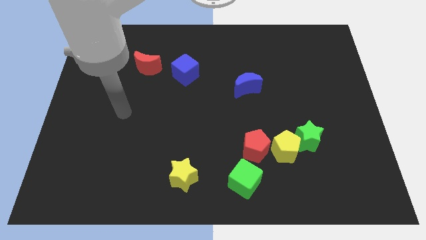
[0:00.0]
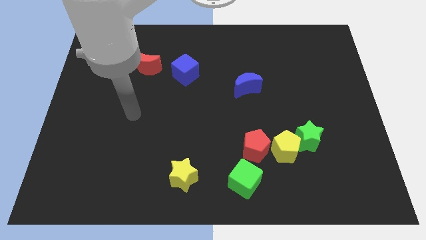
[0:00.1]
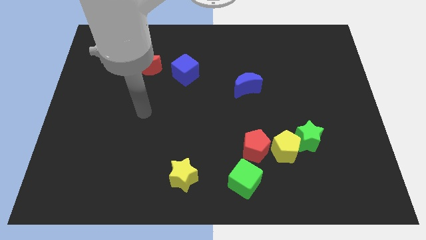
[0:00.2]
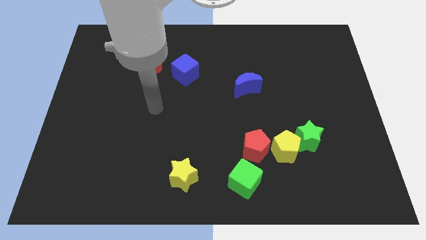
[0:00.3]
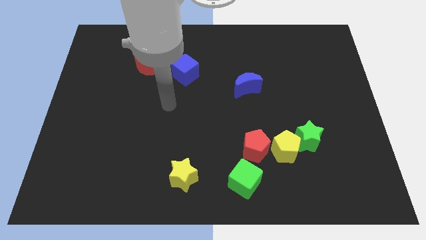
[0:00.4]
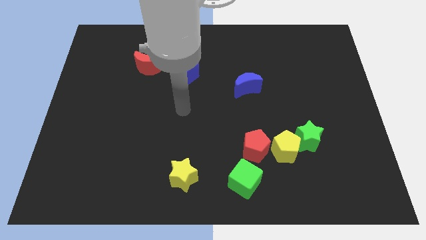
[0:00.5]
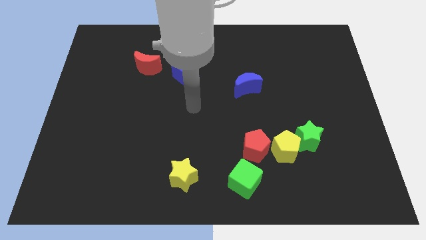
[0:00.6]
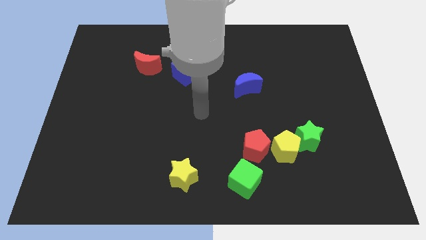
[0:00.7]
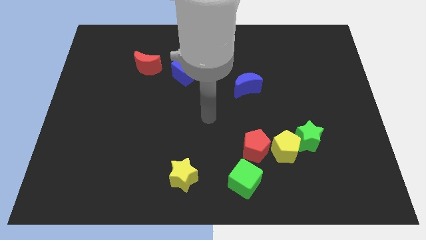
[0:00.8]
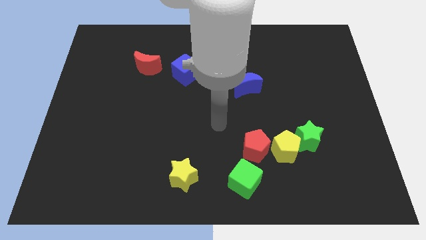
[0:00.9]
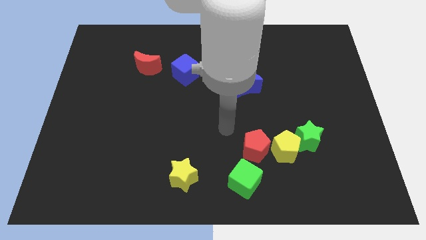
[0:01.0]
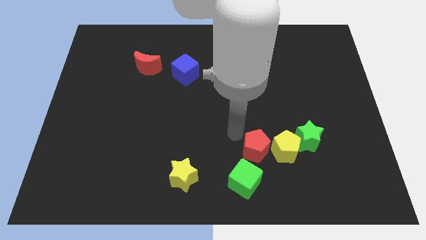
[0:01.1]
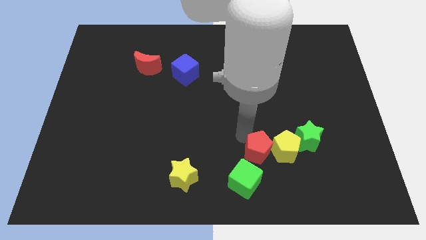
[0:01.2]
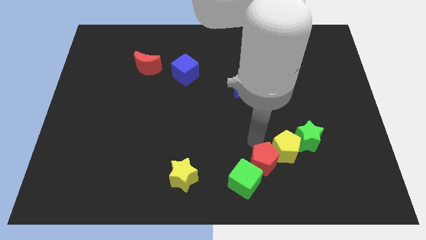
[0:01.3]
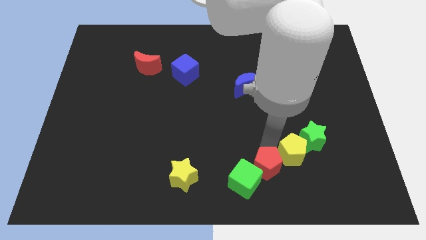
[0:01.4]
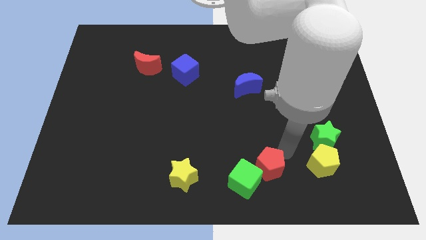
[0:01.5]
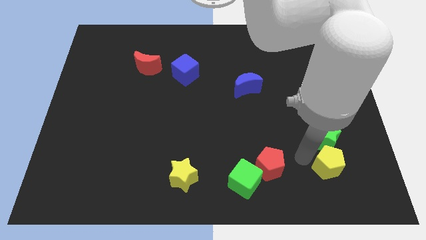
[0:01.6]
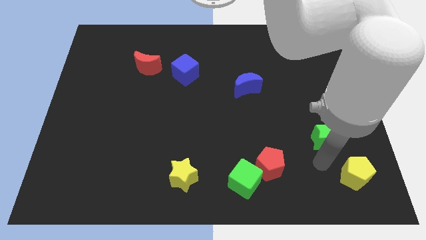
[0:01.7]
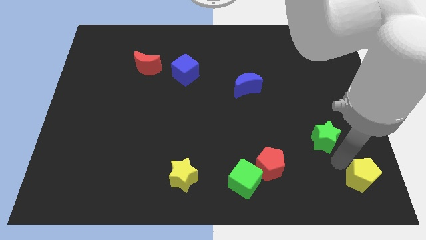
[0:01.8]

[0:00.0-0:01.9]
separate the green star from the yellow pentagon

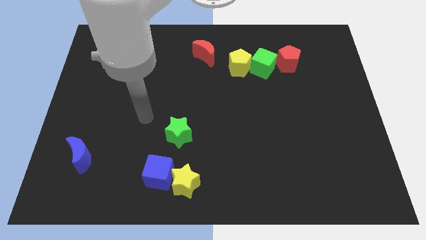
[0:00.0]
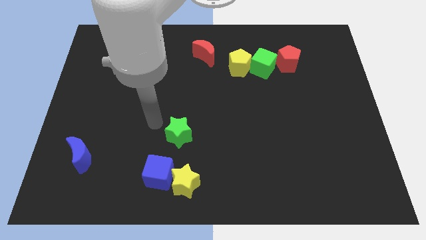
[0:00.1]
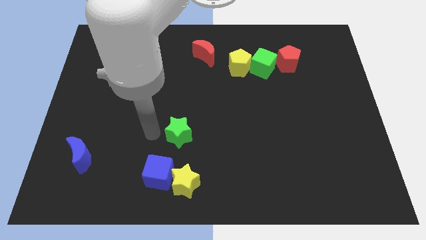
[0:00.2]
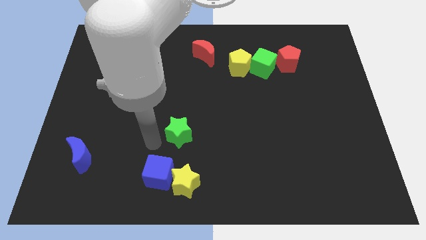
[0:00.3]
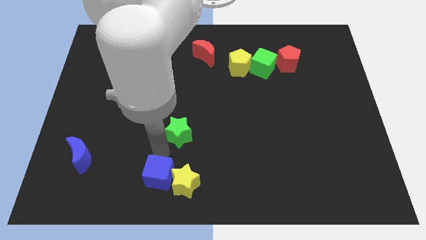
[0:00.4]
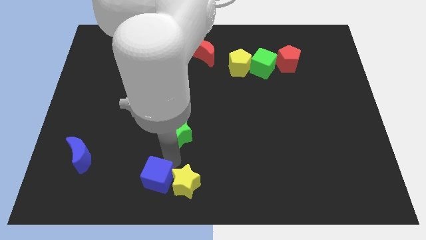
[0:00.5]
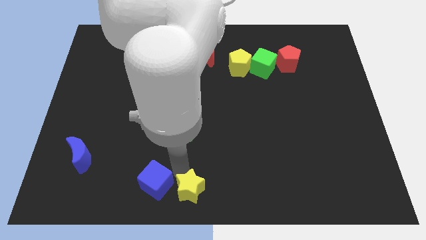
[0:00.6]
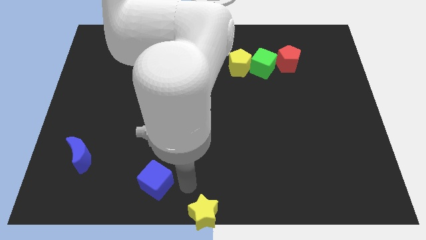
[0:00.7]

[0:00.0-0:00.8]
pull the blue cube apart from the yellow star

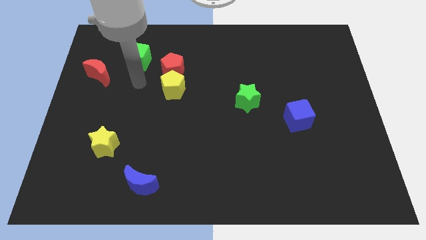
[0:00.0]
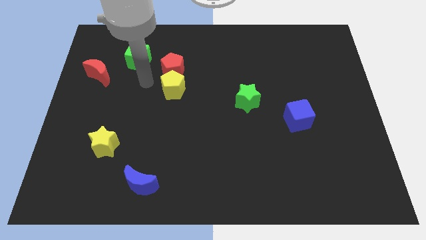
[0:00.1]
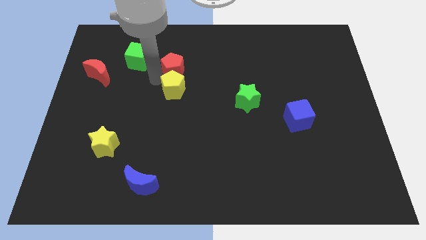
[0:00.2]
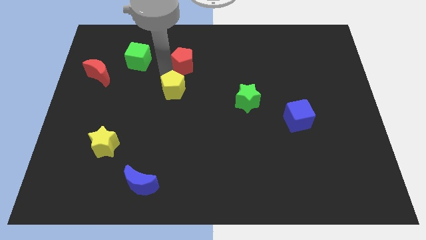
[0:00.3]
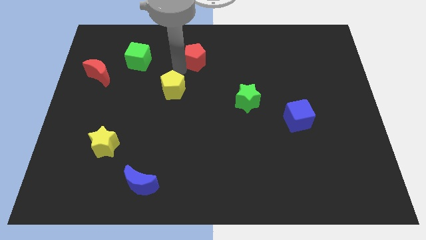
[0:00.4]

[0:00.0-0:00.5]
separate the yellow pentagon from the red pentagon

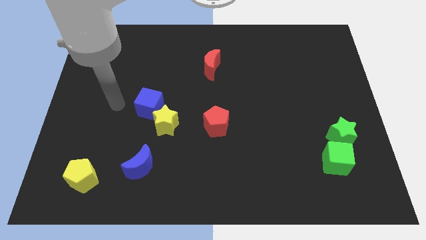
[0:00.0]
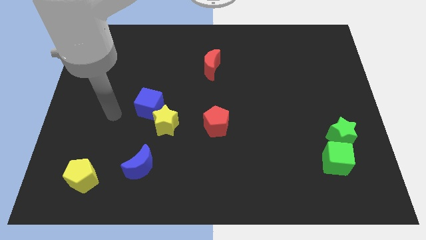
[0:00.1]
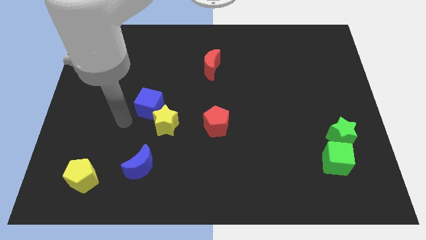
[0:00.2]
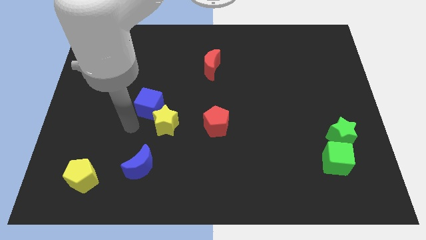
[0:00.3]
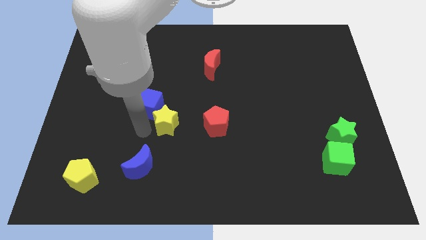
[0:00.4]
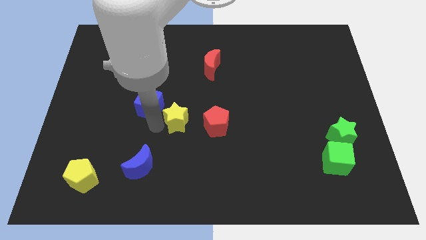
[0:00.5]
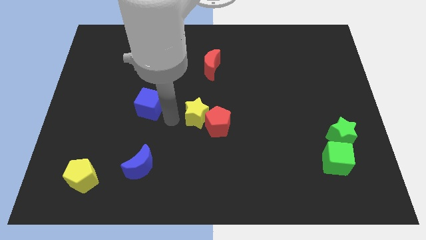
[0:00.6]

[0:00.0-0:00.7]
move the blue cube away from the yellow star

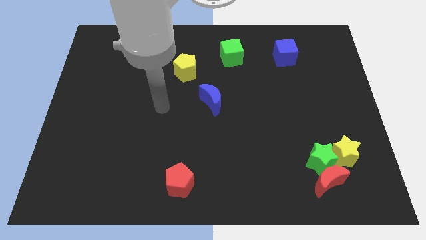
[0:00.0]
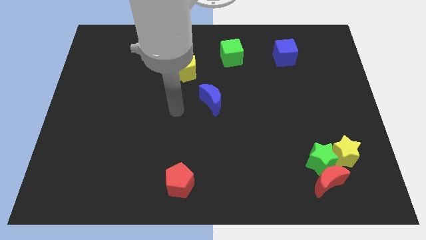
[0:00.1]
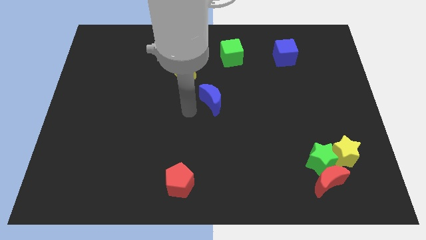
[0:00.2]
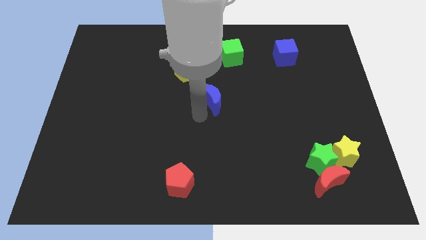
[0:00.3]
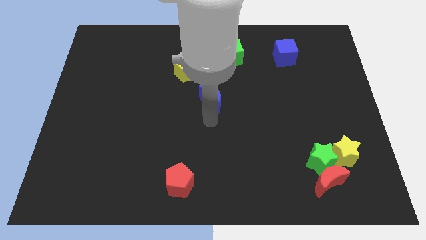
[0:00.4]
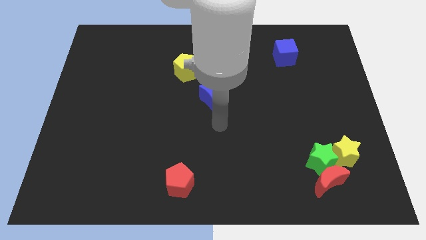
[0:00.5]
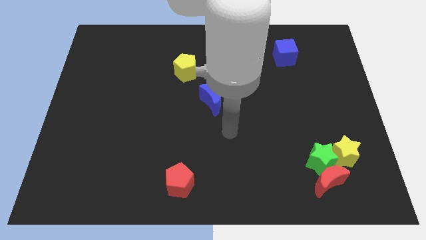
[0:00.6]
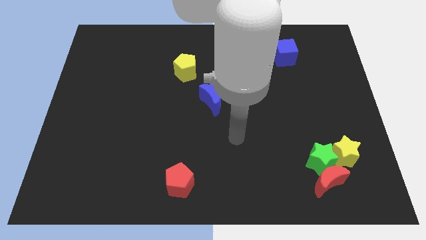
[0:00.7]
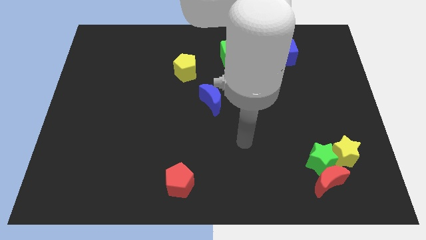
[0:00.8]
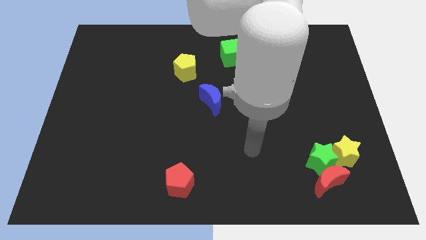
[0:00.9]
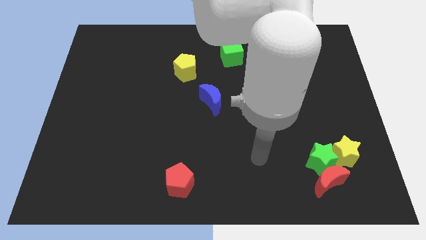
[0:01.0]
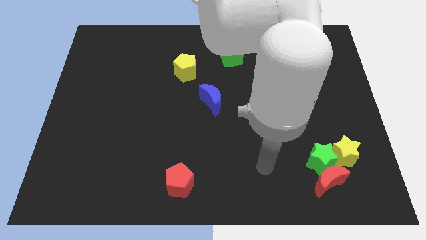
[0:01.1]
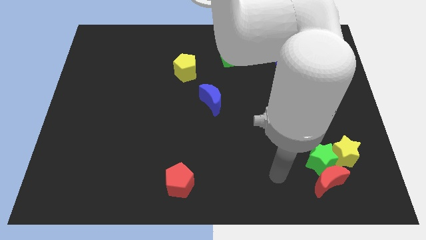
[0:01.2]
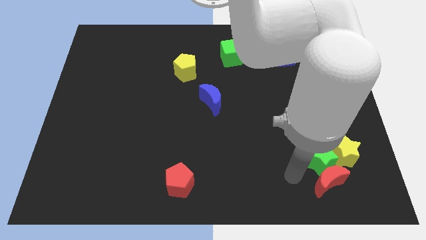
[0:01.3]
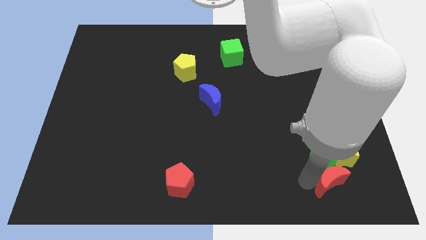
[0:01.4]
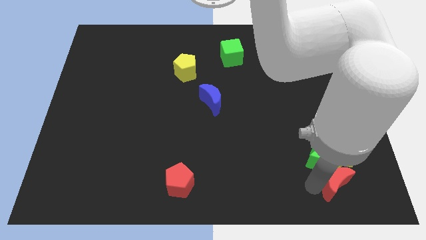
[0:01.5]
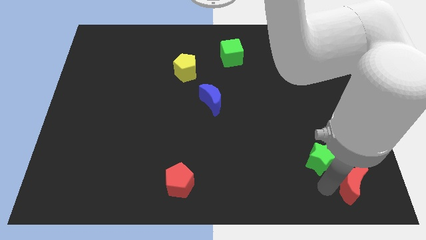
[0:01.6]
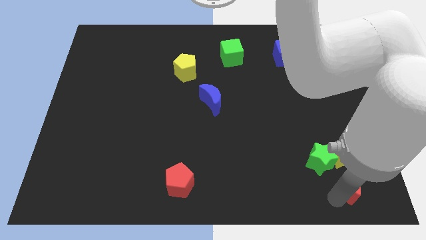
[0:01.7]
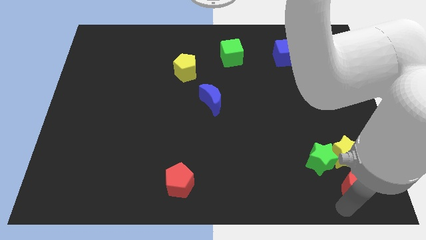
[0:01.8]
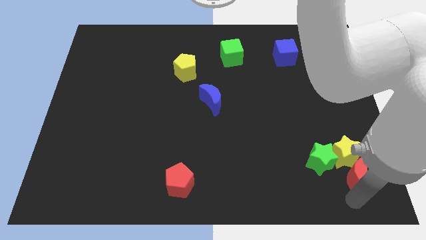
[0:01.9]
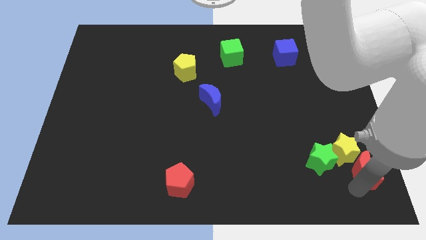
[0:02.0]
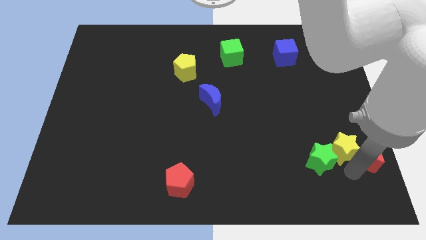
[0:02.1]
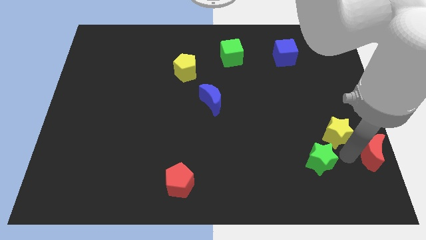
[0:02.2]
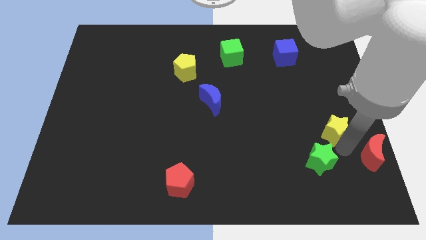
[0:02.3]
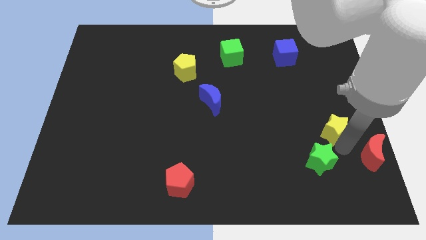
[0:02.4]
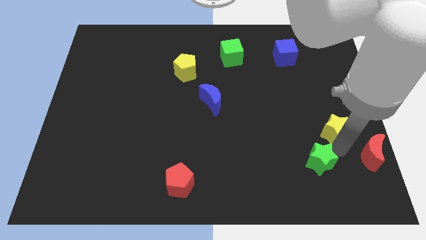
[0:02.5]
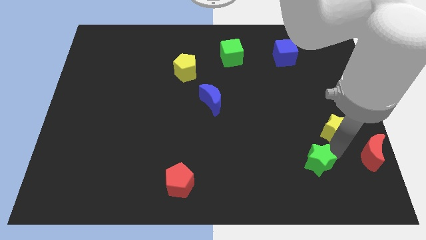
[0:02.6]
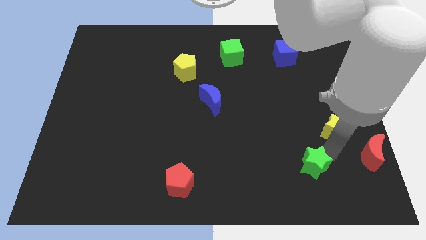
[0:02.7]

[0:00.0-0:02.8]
move the green star away from the red moon and yellow star

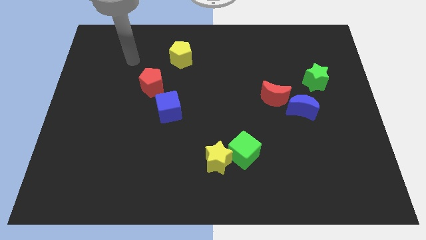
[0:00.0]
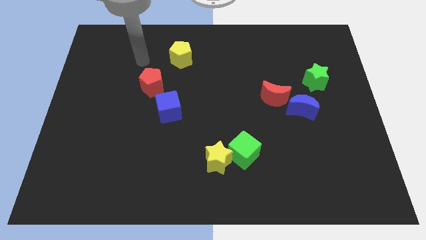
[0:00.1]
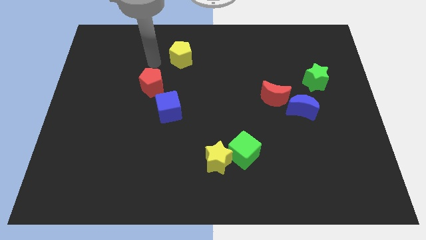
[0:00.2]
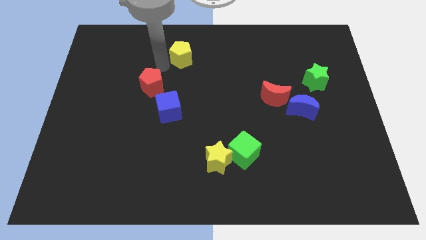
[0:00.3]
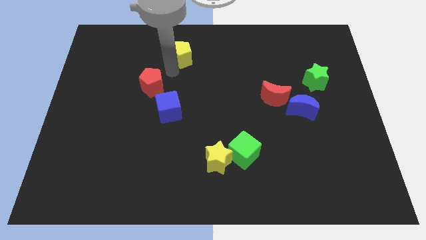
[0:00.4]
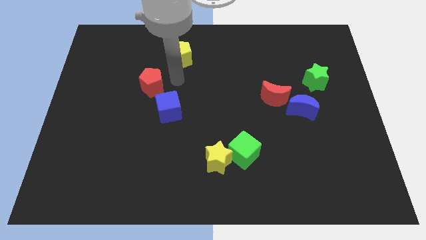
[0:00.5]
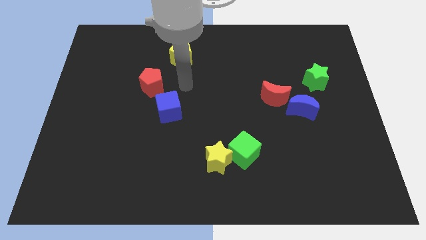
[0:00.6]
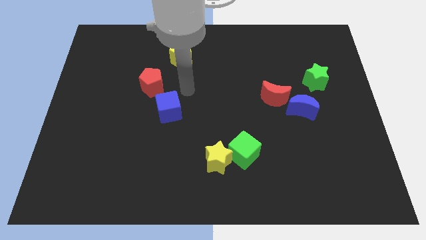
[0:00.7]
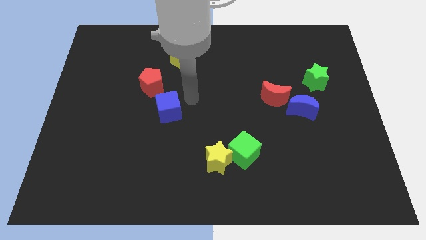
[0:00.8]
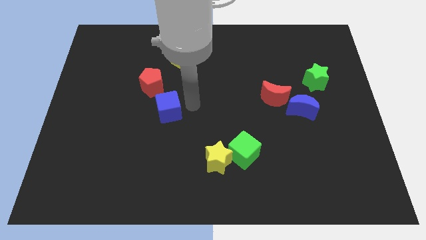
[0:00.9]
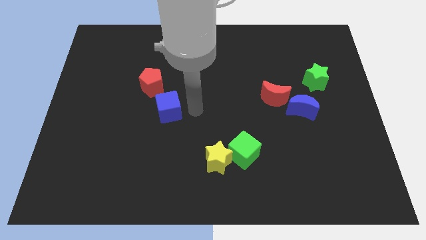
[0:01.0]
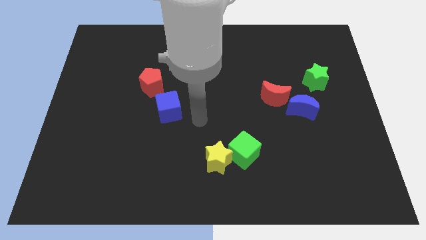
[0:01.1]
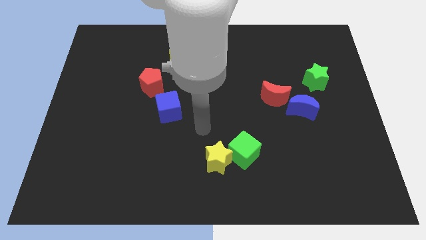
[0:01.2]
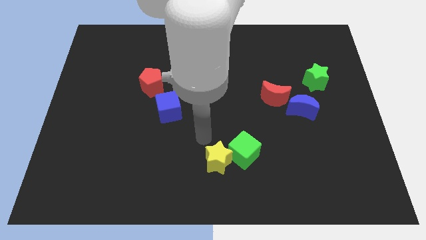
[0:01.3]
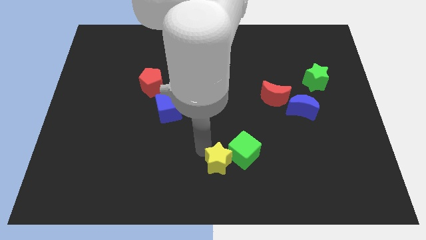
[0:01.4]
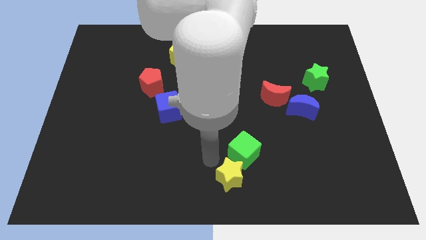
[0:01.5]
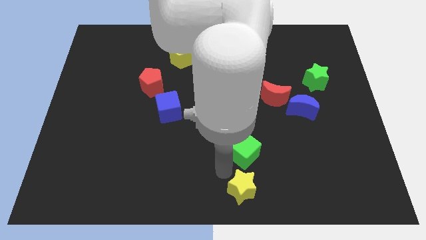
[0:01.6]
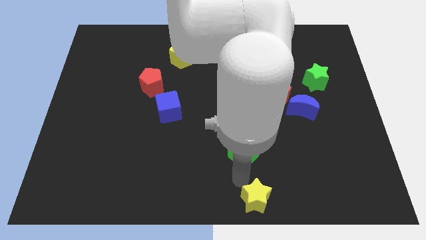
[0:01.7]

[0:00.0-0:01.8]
pull the green cube apart from the yellow star

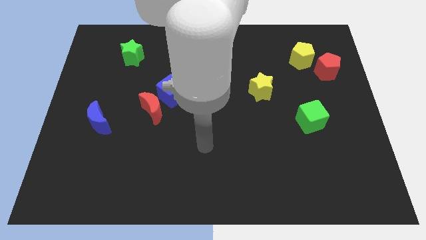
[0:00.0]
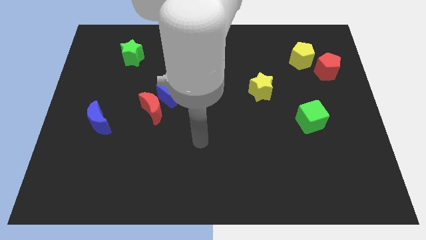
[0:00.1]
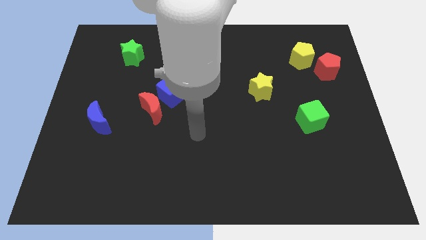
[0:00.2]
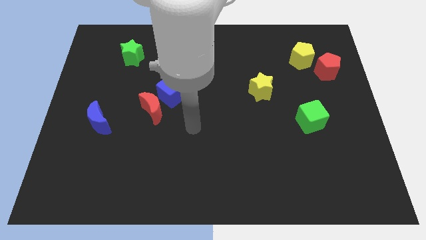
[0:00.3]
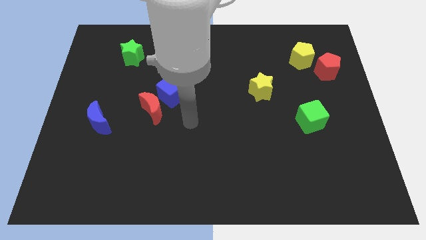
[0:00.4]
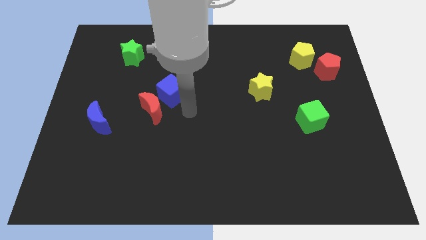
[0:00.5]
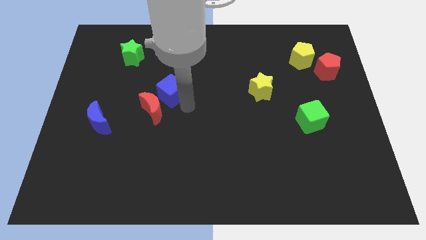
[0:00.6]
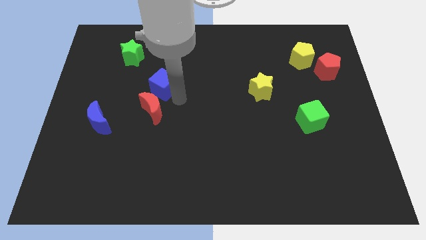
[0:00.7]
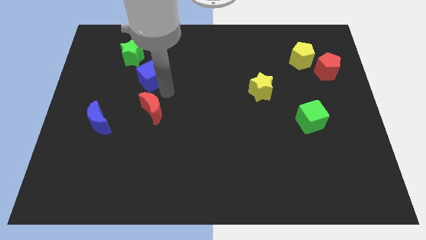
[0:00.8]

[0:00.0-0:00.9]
move the red moon away from the blue cube
